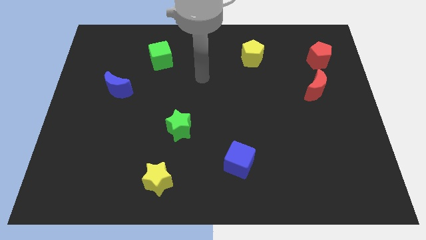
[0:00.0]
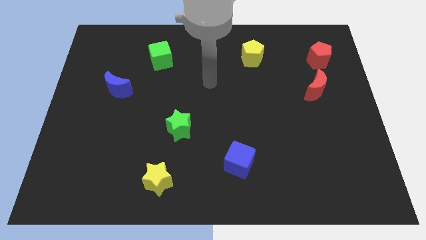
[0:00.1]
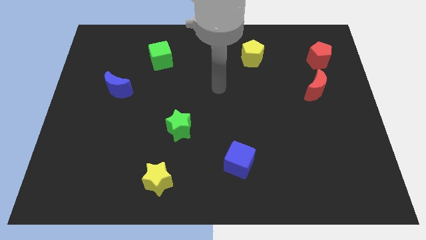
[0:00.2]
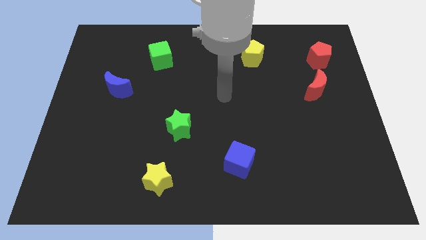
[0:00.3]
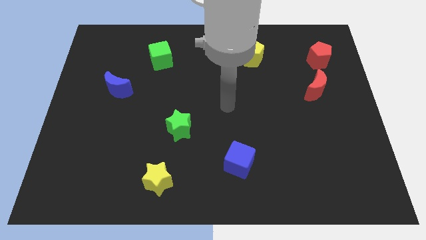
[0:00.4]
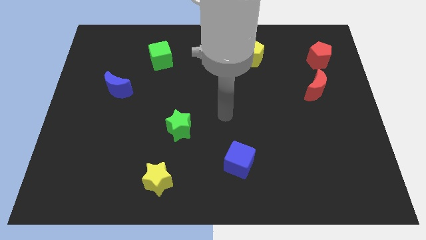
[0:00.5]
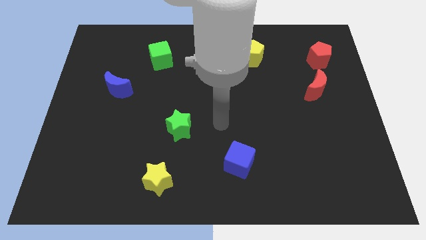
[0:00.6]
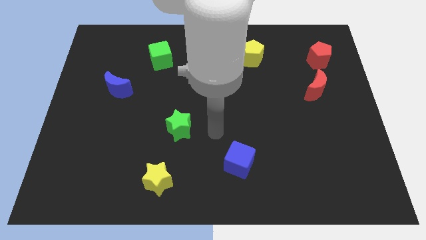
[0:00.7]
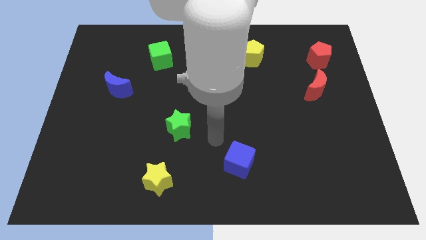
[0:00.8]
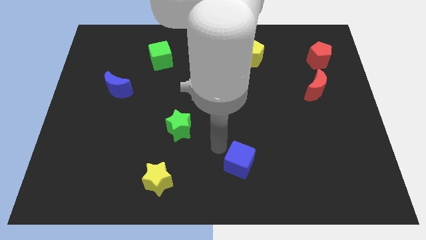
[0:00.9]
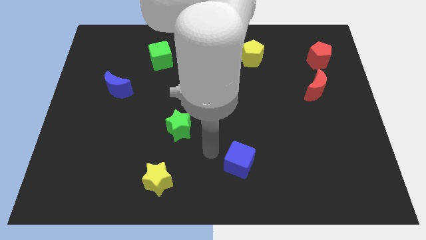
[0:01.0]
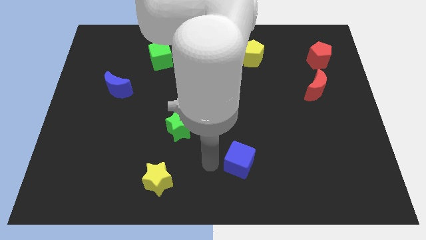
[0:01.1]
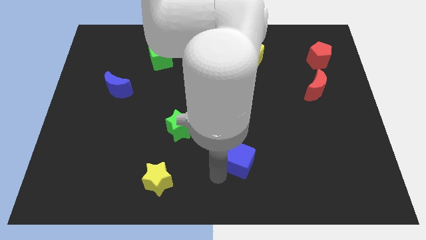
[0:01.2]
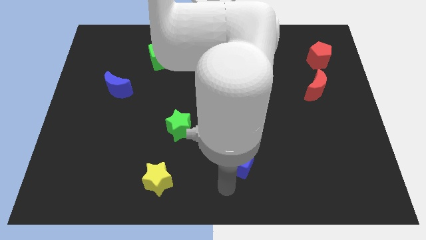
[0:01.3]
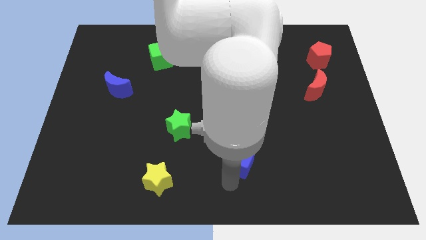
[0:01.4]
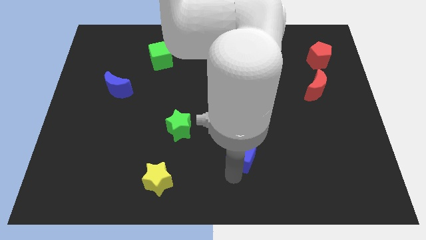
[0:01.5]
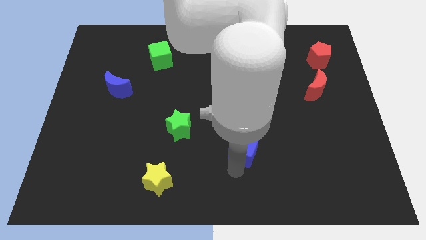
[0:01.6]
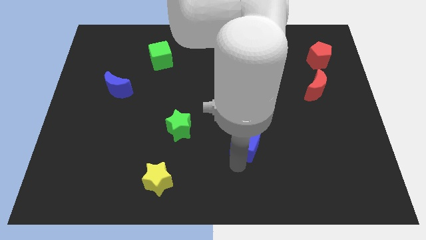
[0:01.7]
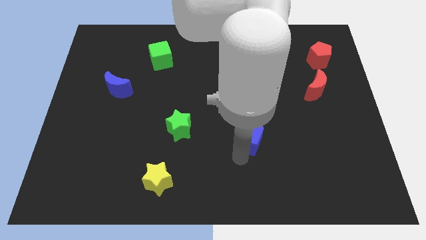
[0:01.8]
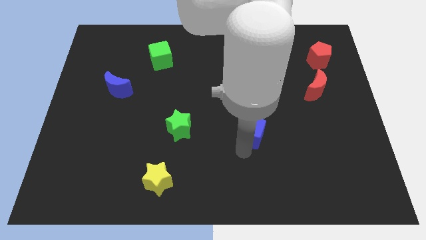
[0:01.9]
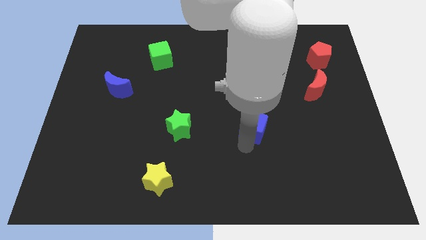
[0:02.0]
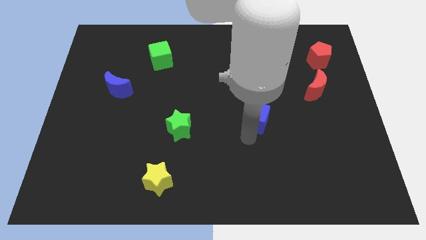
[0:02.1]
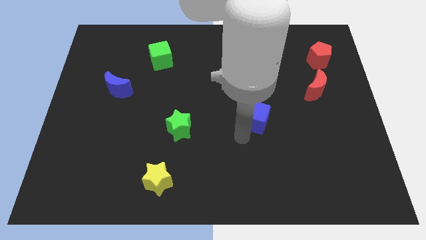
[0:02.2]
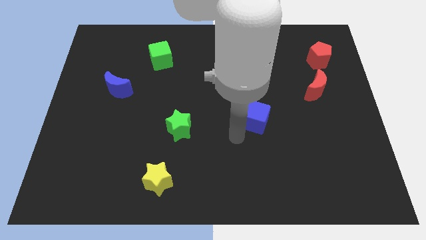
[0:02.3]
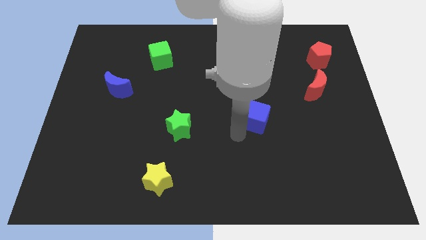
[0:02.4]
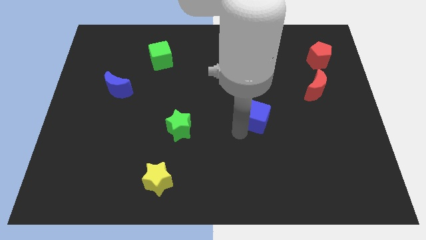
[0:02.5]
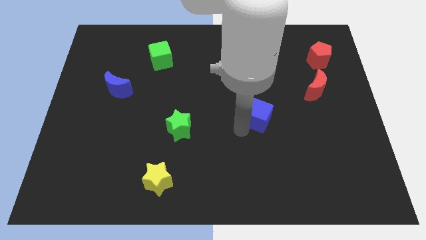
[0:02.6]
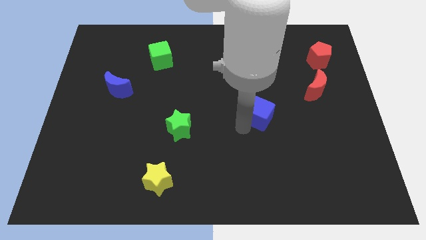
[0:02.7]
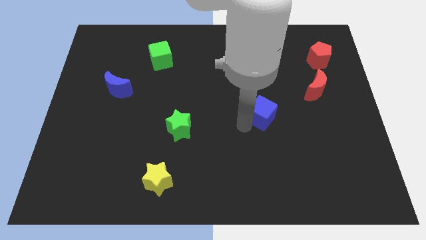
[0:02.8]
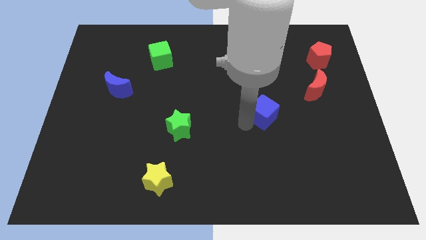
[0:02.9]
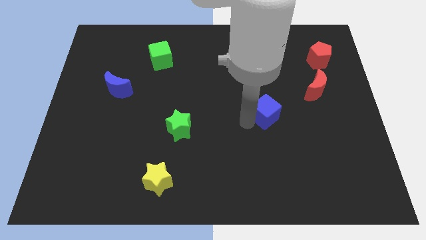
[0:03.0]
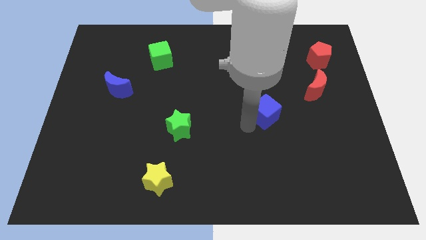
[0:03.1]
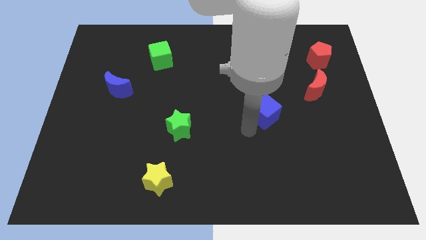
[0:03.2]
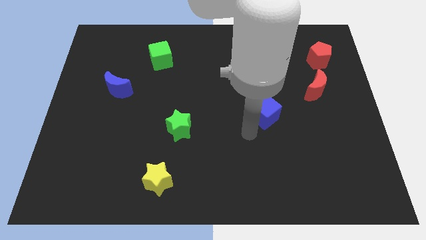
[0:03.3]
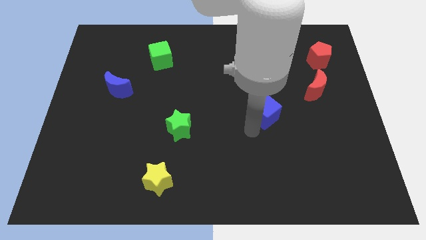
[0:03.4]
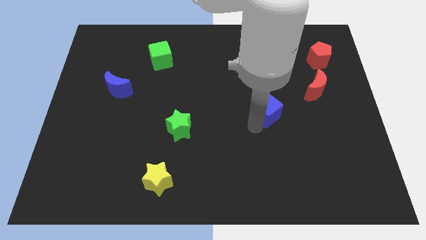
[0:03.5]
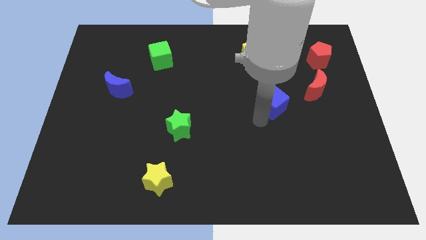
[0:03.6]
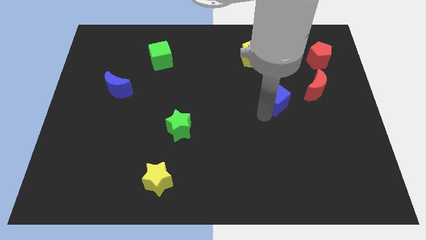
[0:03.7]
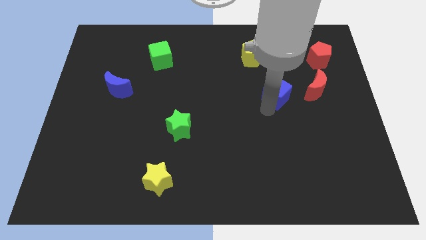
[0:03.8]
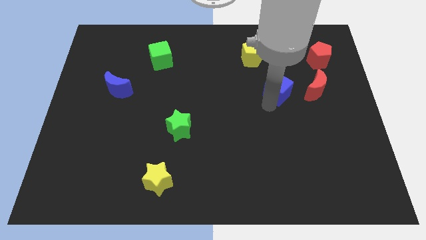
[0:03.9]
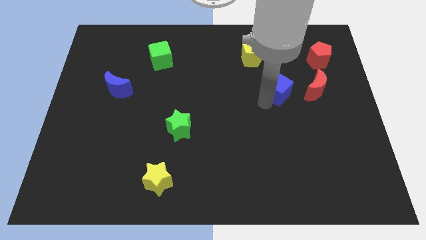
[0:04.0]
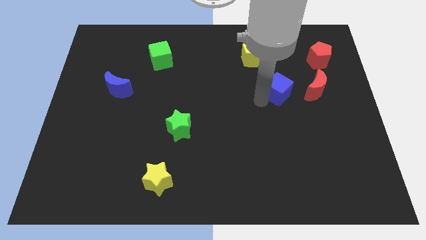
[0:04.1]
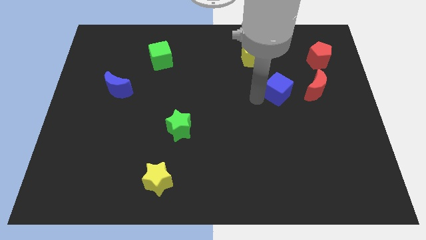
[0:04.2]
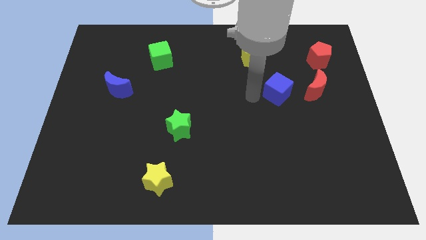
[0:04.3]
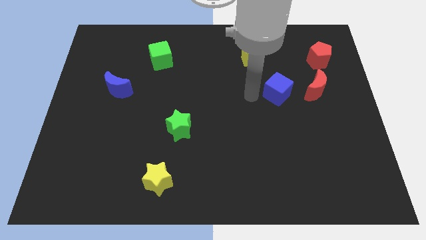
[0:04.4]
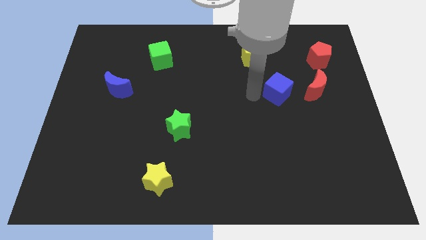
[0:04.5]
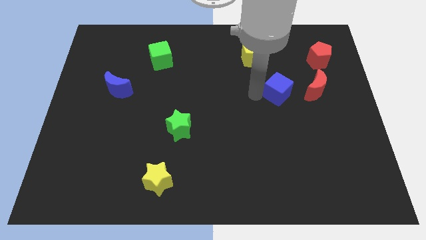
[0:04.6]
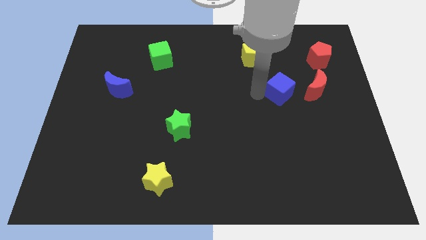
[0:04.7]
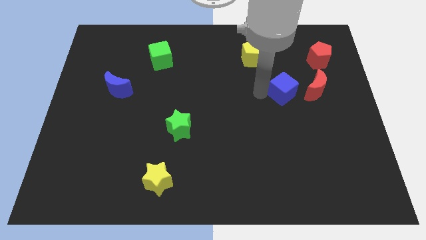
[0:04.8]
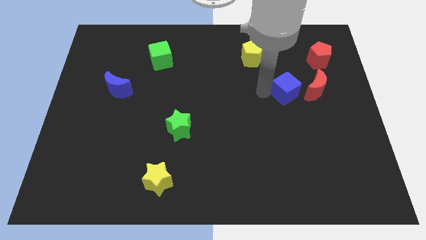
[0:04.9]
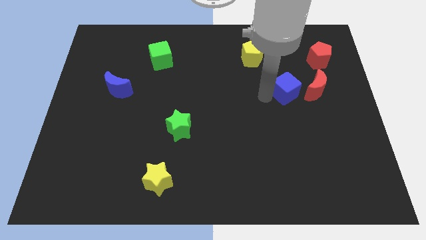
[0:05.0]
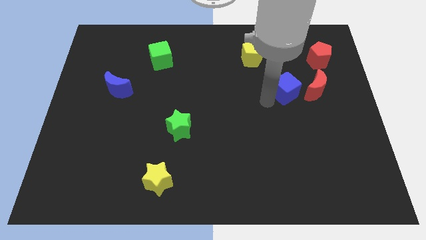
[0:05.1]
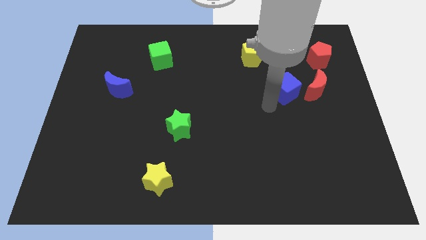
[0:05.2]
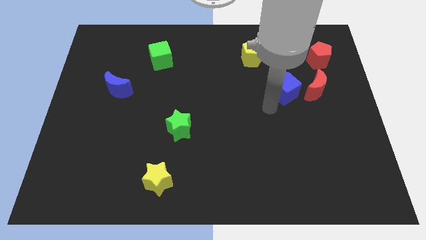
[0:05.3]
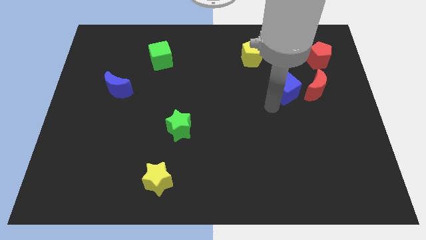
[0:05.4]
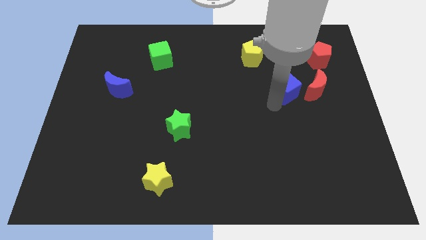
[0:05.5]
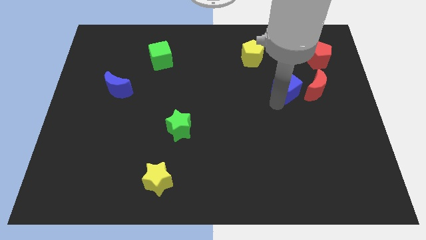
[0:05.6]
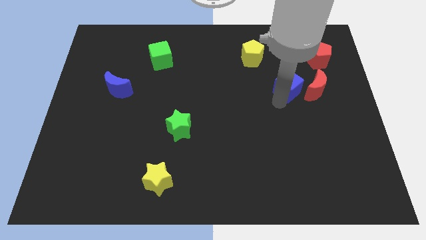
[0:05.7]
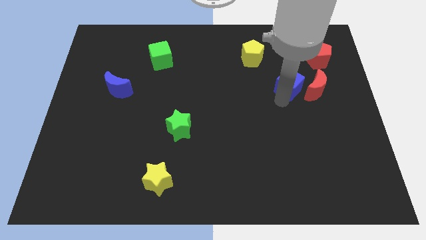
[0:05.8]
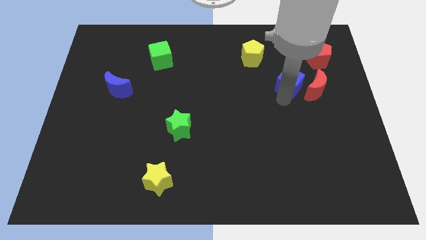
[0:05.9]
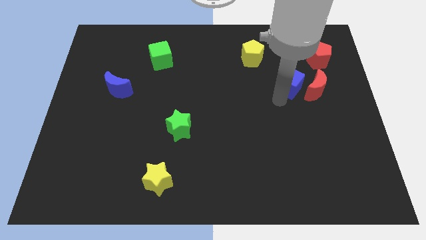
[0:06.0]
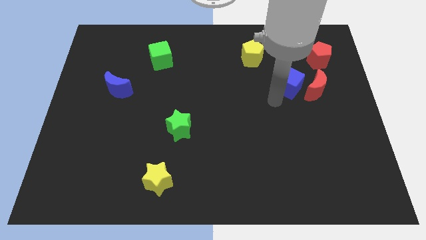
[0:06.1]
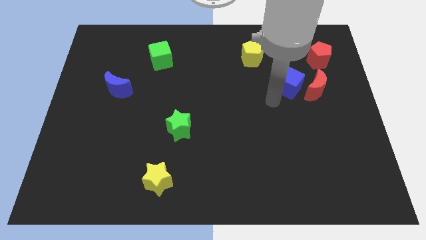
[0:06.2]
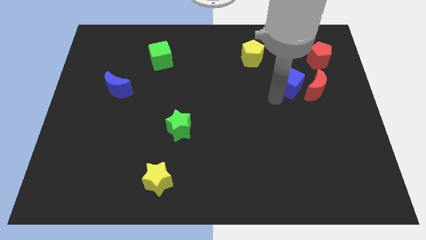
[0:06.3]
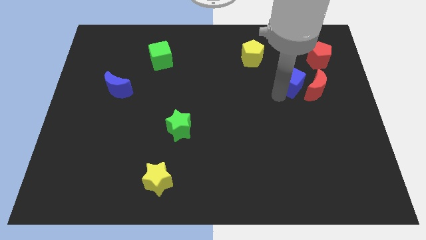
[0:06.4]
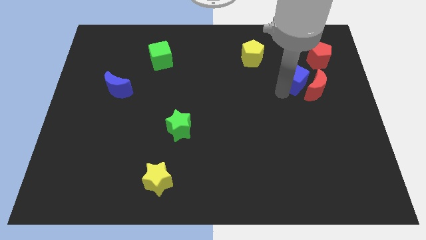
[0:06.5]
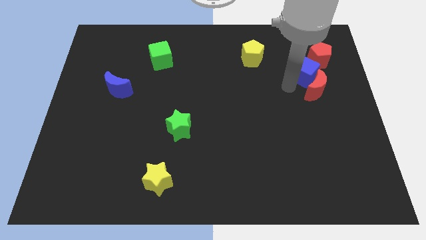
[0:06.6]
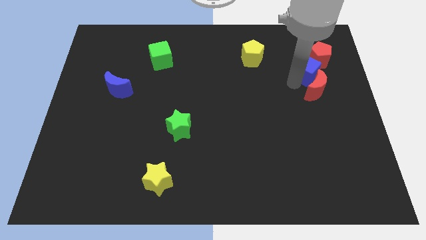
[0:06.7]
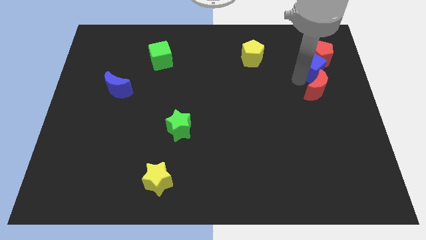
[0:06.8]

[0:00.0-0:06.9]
push the blue cube towards the red pentagon

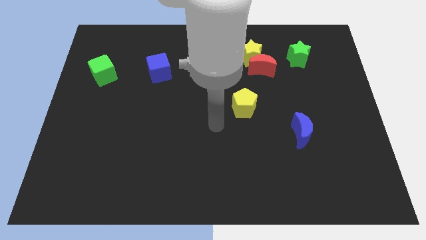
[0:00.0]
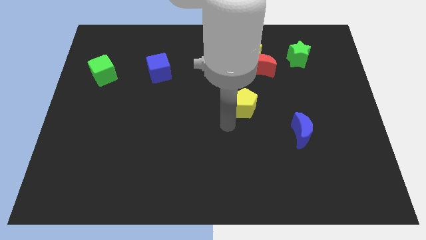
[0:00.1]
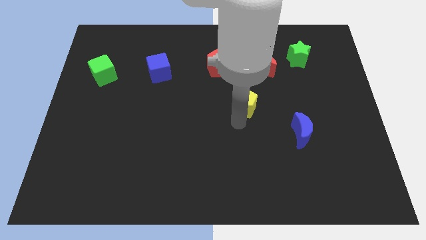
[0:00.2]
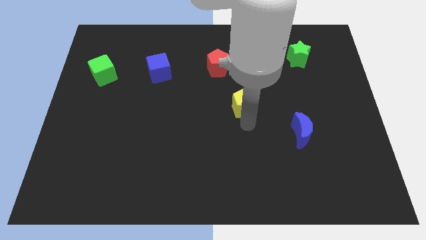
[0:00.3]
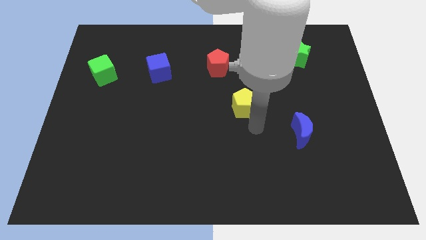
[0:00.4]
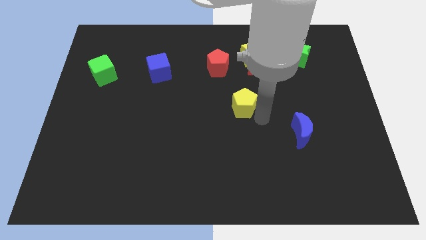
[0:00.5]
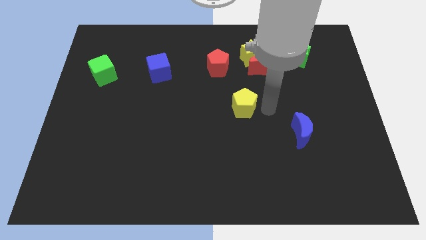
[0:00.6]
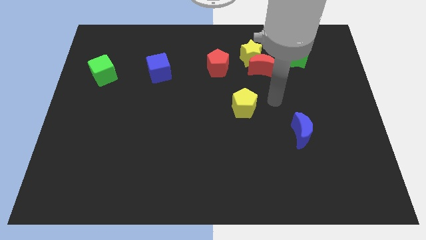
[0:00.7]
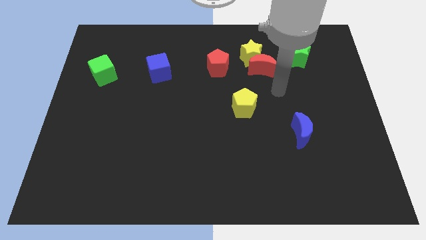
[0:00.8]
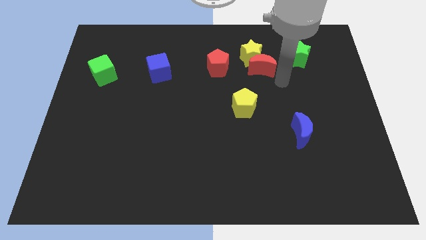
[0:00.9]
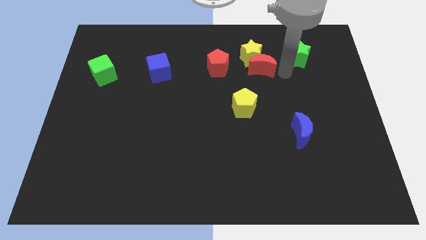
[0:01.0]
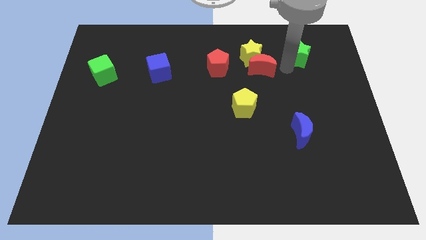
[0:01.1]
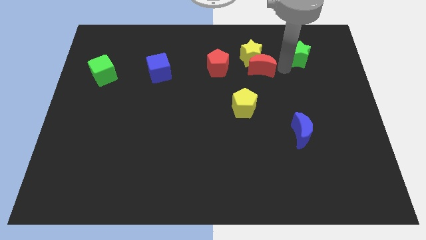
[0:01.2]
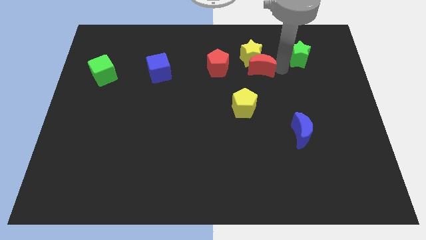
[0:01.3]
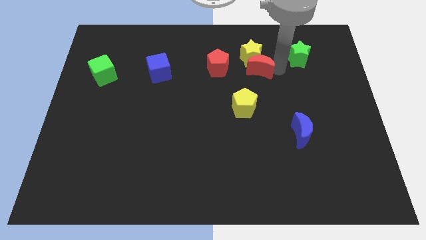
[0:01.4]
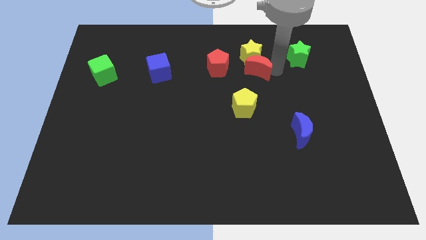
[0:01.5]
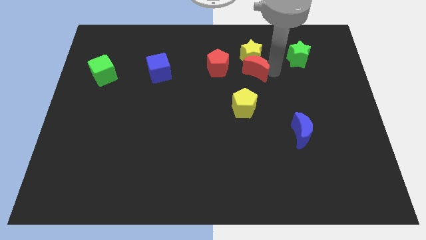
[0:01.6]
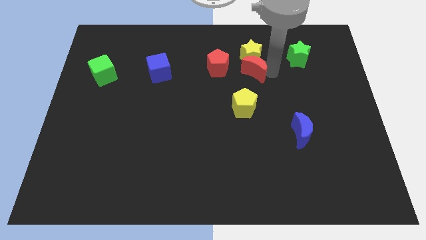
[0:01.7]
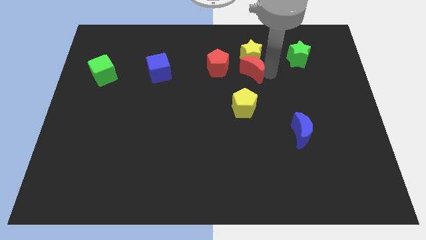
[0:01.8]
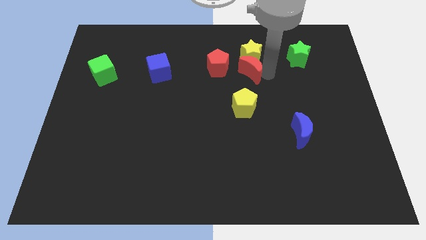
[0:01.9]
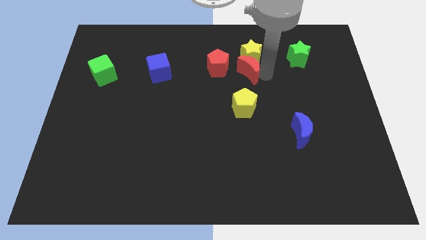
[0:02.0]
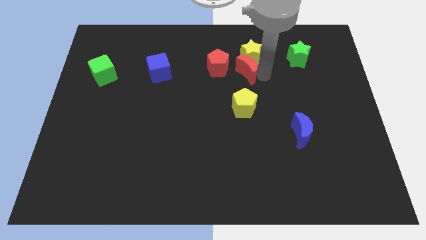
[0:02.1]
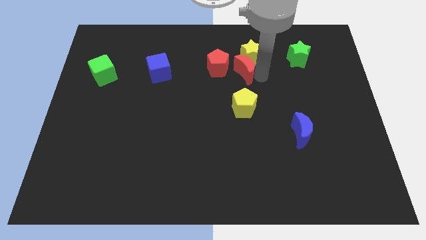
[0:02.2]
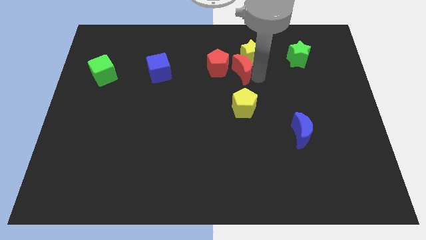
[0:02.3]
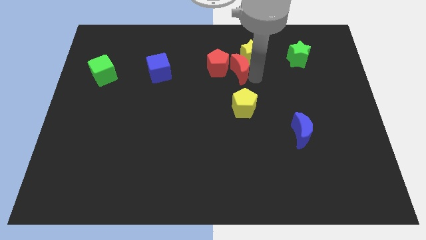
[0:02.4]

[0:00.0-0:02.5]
push the red moon close to the red pentagon
